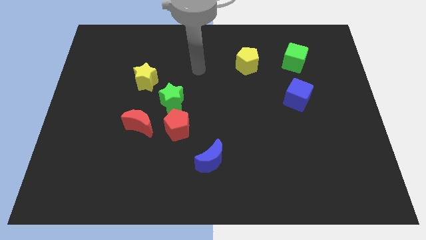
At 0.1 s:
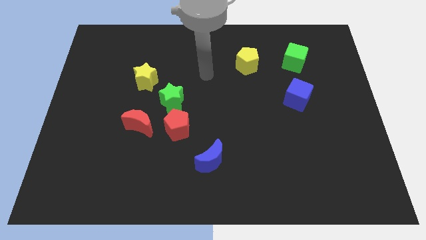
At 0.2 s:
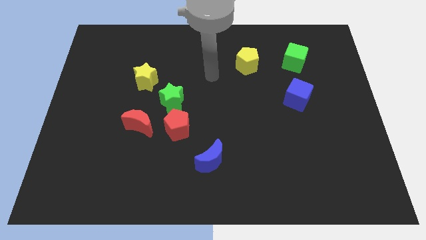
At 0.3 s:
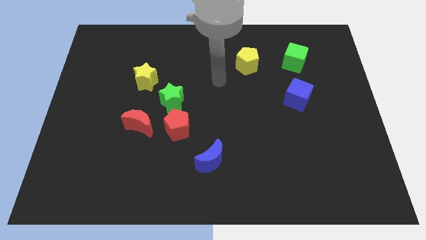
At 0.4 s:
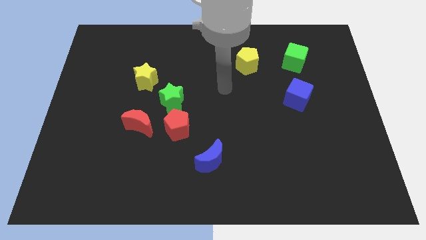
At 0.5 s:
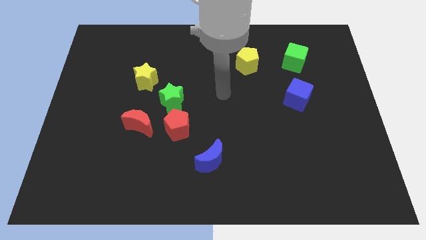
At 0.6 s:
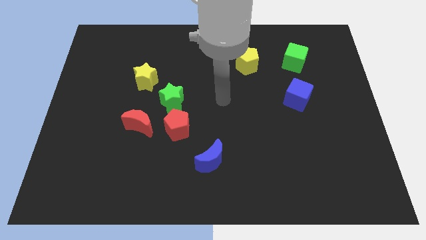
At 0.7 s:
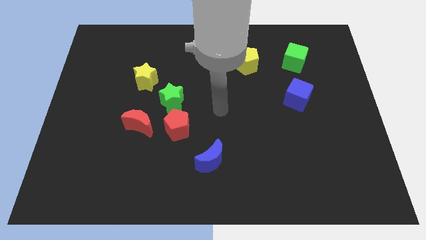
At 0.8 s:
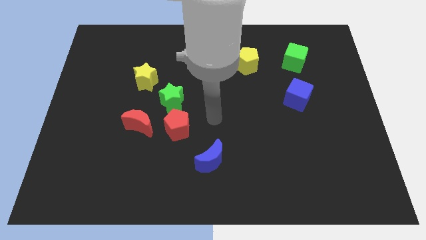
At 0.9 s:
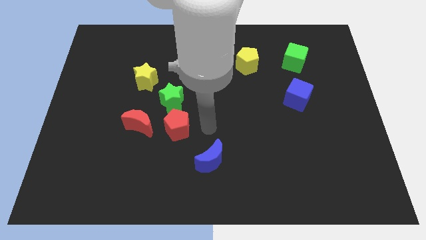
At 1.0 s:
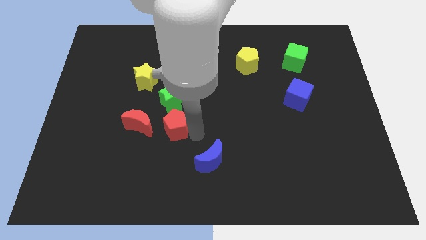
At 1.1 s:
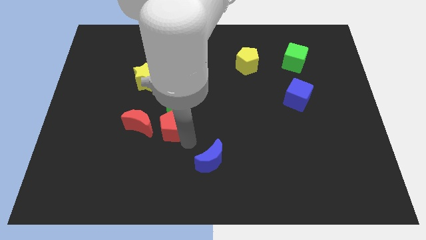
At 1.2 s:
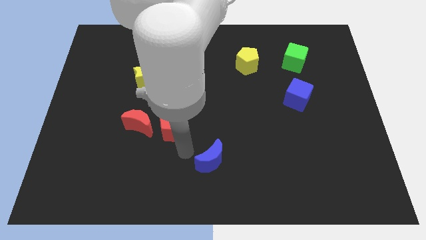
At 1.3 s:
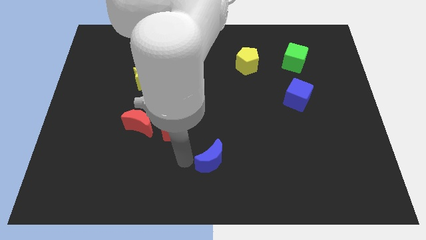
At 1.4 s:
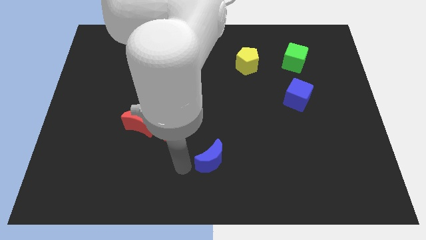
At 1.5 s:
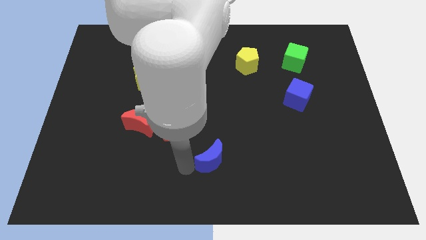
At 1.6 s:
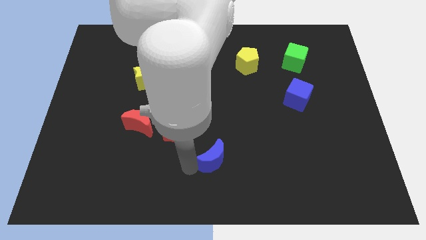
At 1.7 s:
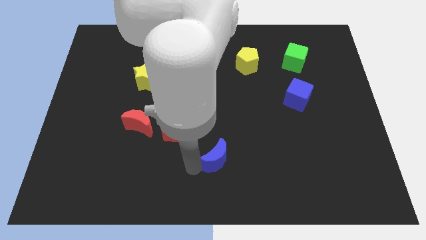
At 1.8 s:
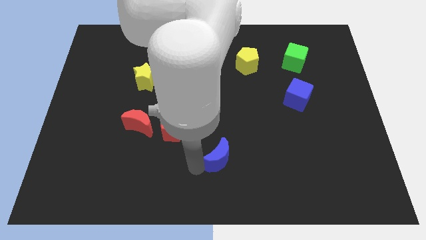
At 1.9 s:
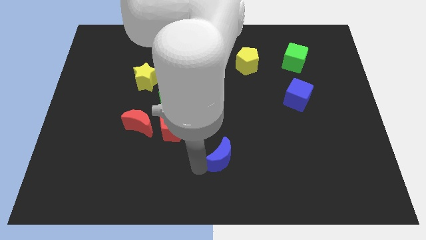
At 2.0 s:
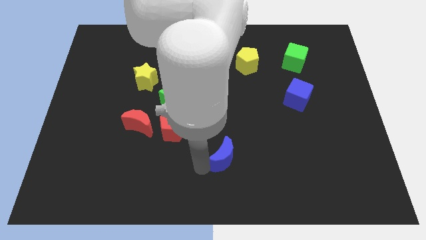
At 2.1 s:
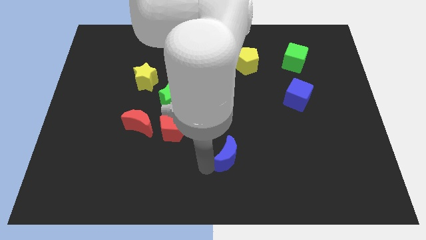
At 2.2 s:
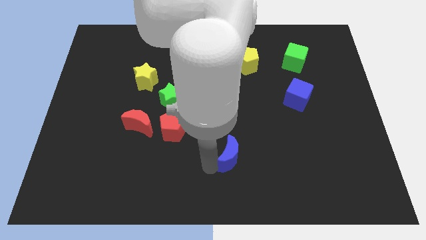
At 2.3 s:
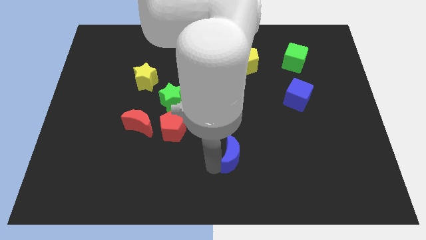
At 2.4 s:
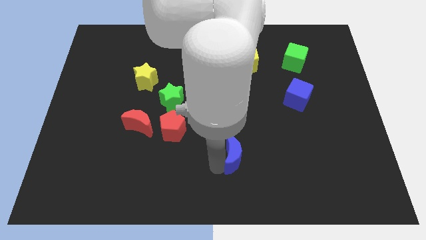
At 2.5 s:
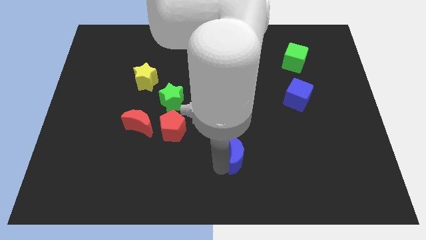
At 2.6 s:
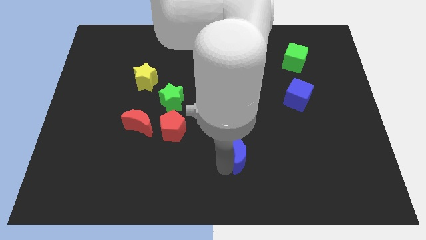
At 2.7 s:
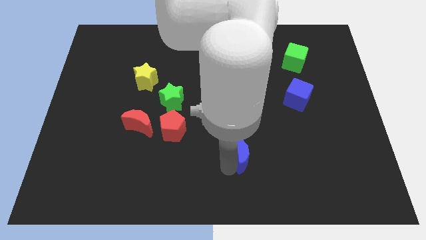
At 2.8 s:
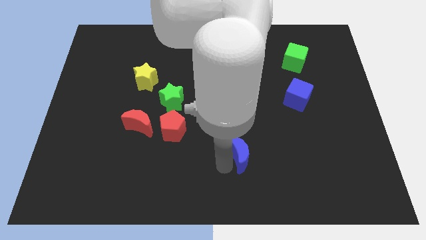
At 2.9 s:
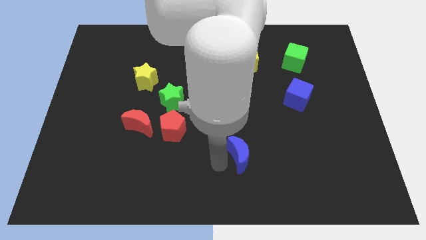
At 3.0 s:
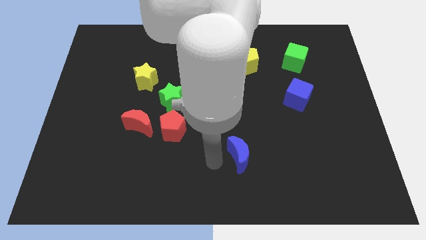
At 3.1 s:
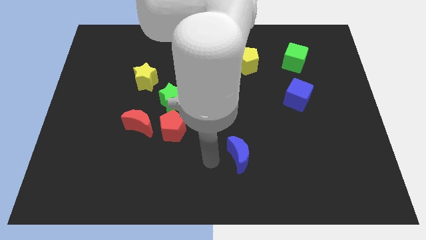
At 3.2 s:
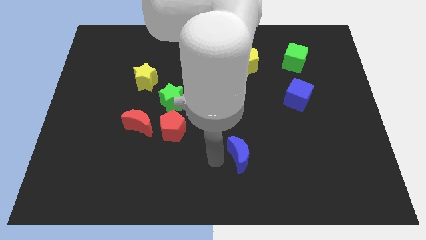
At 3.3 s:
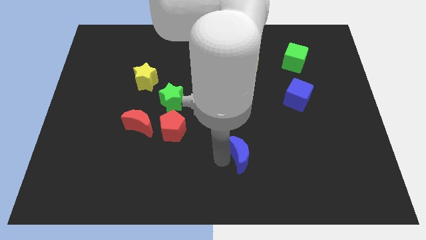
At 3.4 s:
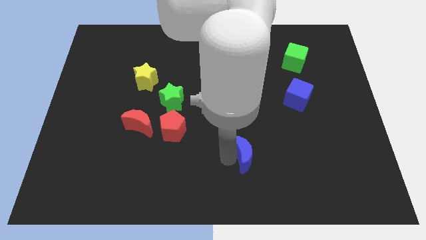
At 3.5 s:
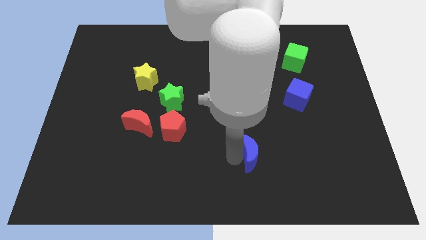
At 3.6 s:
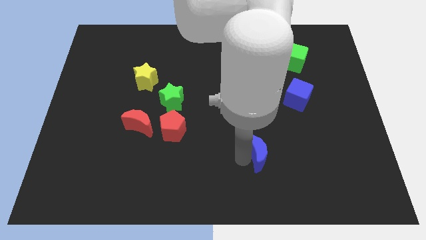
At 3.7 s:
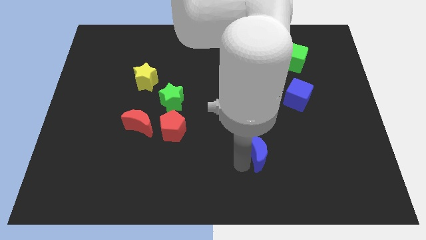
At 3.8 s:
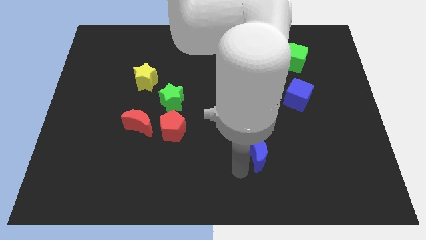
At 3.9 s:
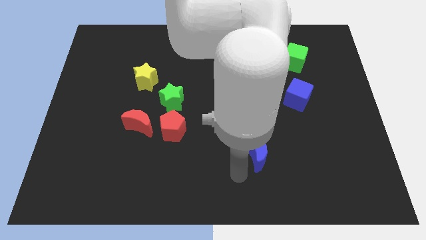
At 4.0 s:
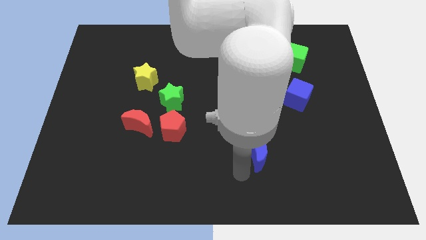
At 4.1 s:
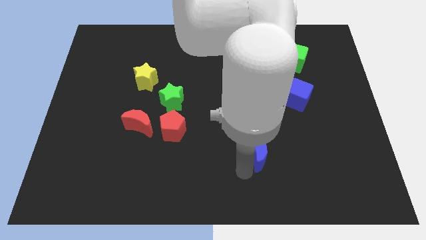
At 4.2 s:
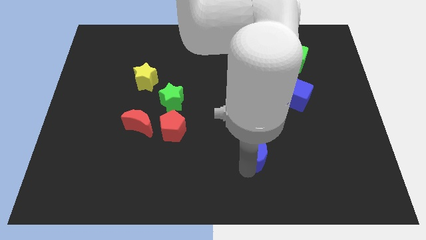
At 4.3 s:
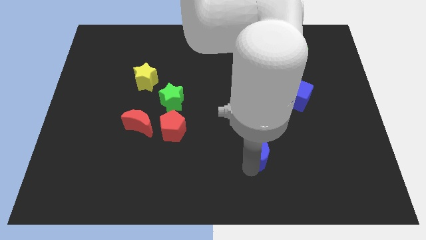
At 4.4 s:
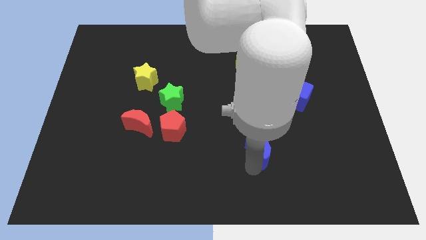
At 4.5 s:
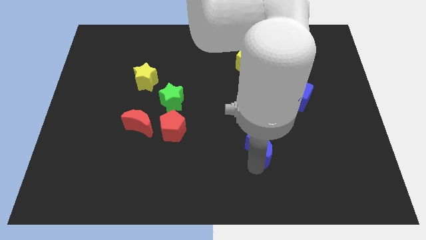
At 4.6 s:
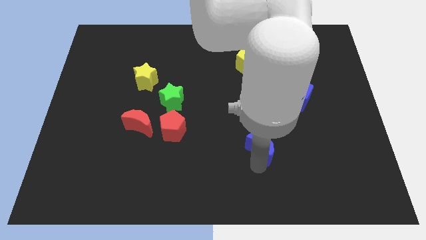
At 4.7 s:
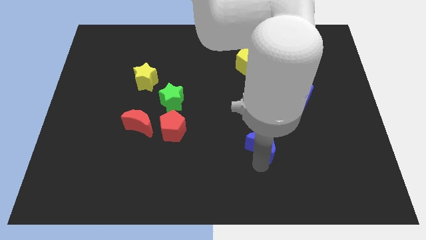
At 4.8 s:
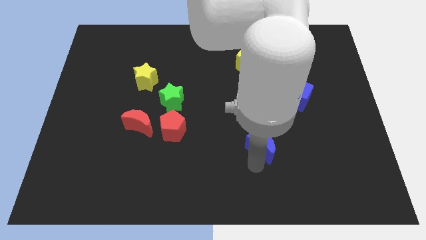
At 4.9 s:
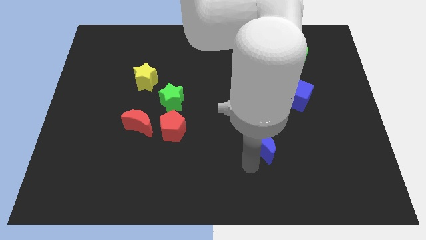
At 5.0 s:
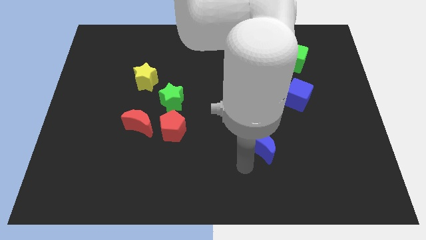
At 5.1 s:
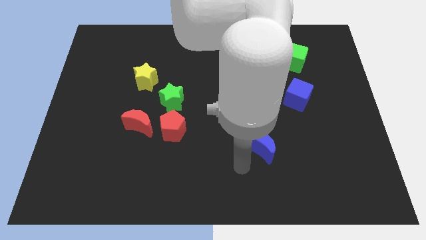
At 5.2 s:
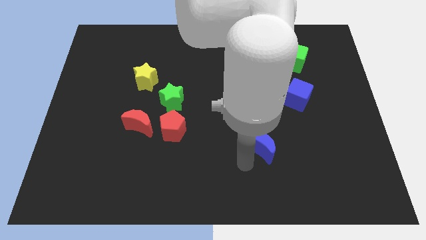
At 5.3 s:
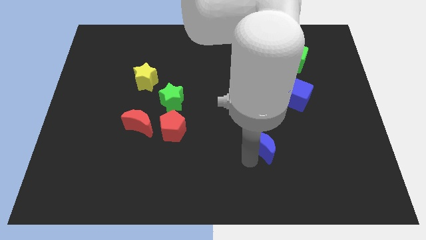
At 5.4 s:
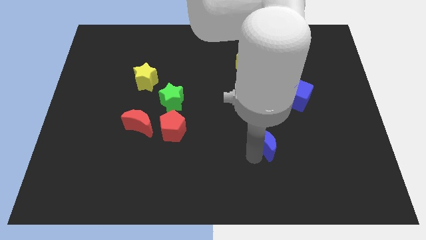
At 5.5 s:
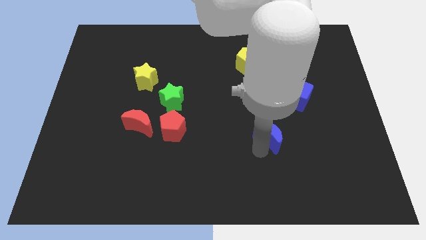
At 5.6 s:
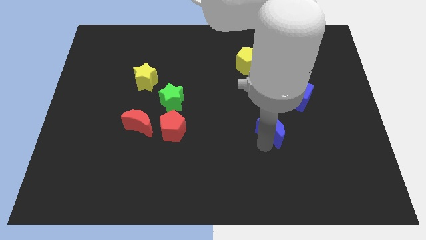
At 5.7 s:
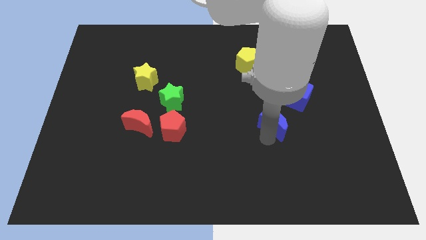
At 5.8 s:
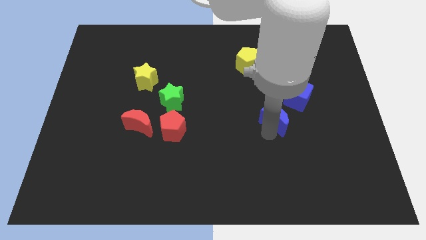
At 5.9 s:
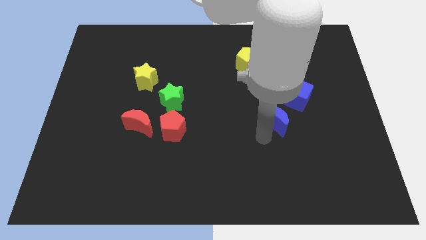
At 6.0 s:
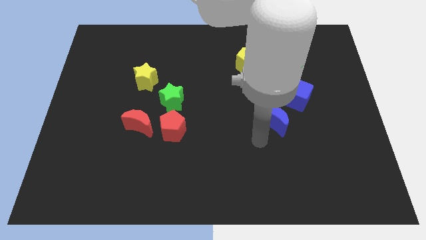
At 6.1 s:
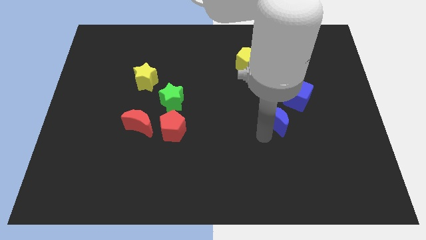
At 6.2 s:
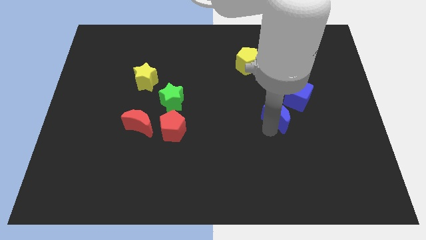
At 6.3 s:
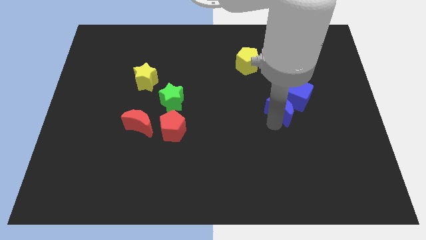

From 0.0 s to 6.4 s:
push the blue moon to the blue cube

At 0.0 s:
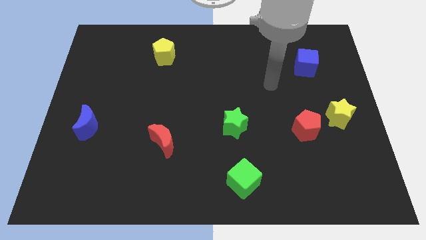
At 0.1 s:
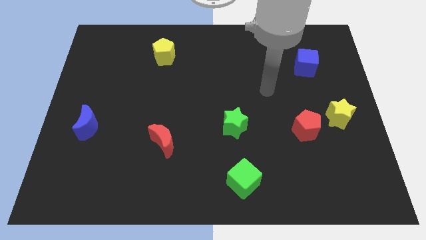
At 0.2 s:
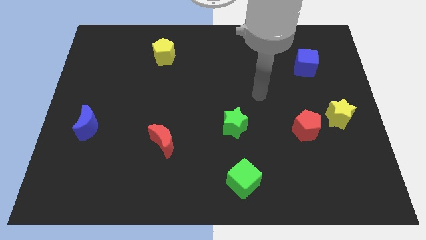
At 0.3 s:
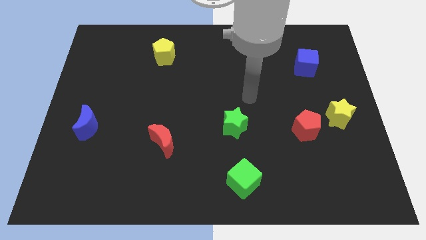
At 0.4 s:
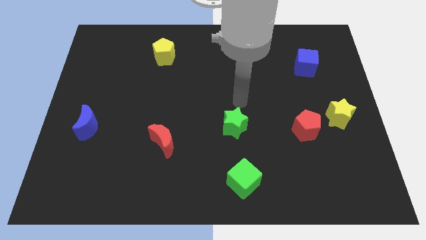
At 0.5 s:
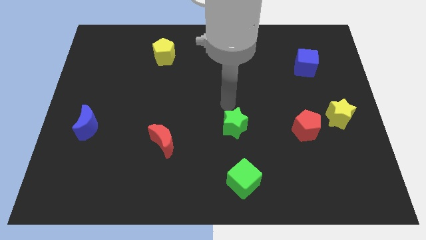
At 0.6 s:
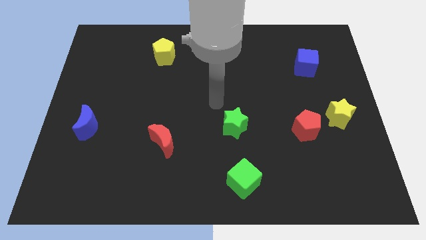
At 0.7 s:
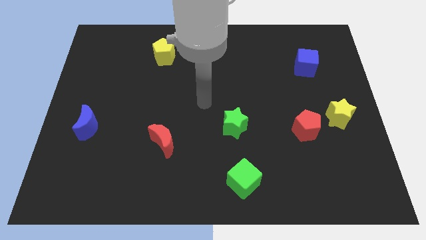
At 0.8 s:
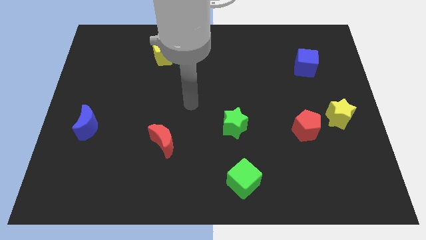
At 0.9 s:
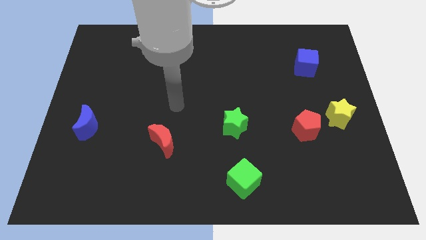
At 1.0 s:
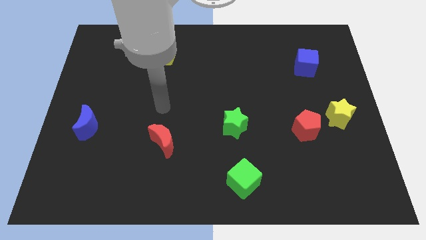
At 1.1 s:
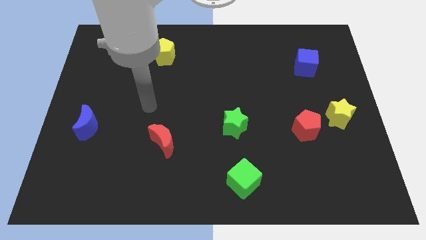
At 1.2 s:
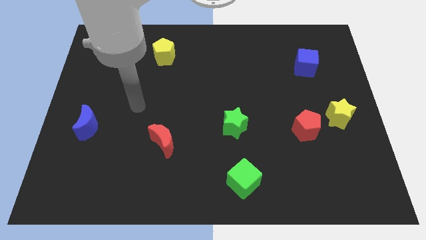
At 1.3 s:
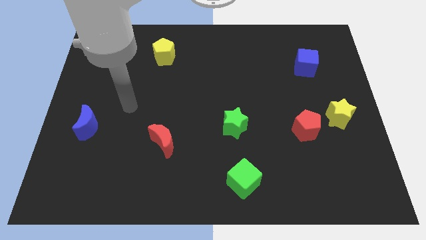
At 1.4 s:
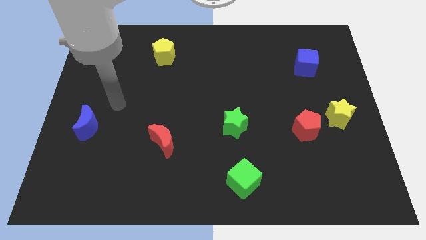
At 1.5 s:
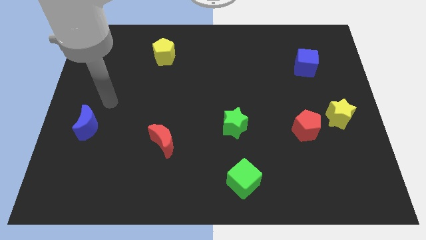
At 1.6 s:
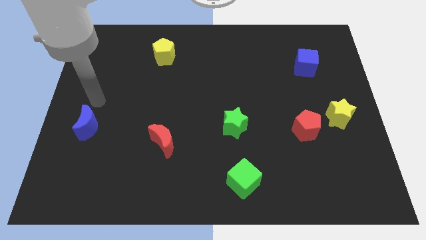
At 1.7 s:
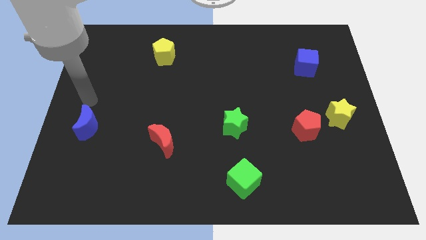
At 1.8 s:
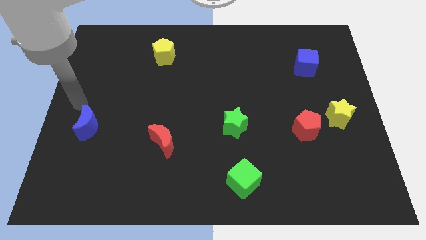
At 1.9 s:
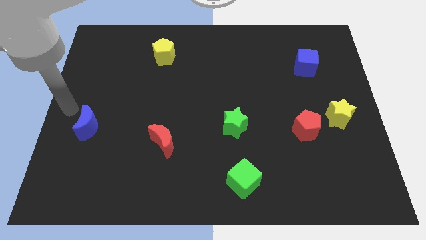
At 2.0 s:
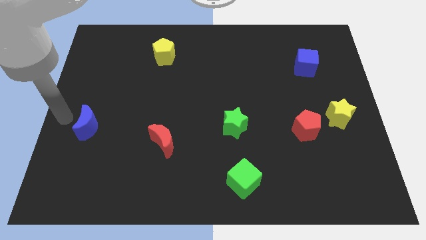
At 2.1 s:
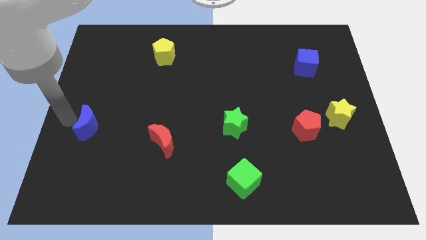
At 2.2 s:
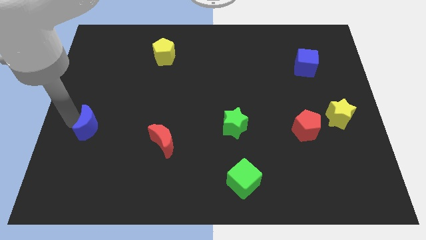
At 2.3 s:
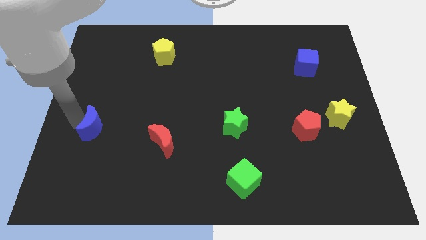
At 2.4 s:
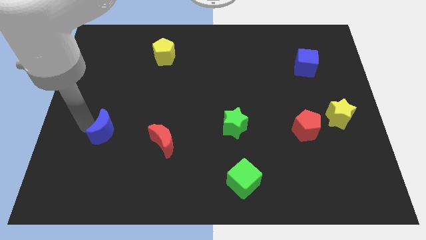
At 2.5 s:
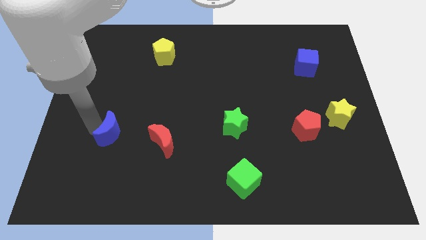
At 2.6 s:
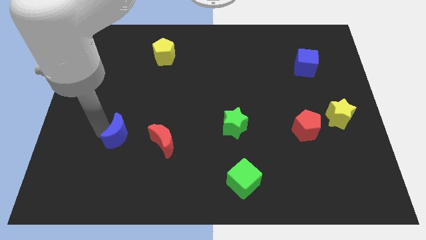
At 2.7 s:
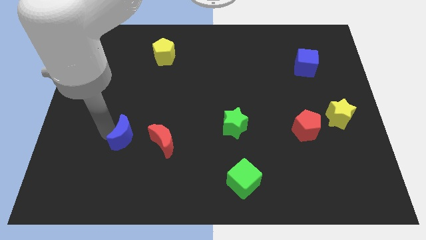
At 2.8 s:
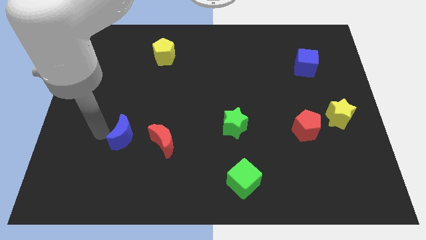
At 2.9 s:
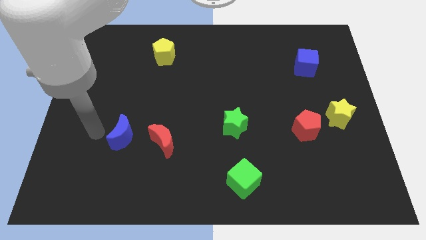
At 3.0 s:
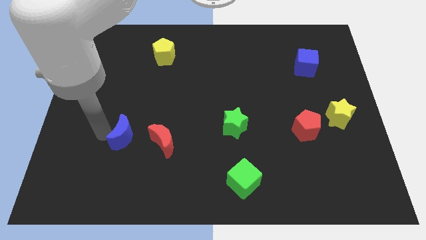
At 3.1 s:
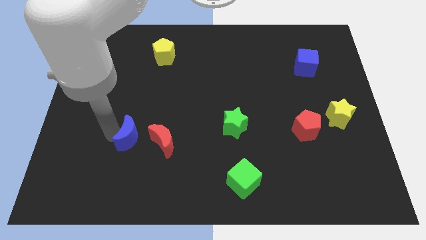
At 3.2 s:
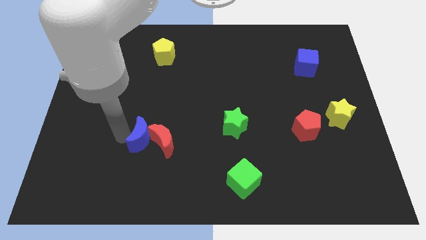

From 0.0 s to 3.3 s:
push the blue moon to the red moon
